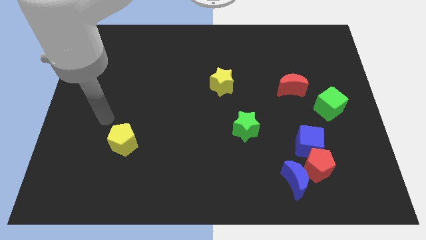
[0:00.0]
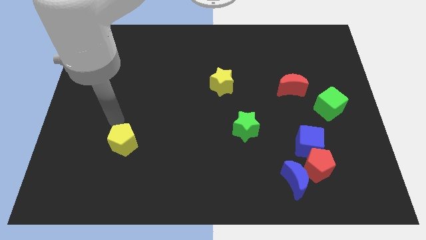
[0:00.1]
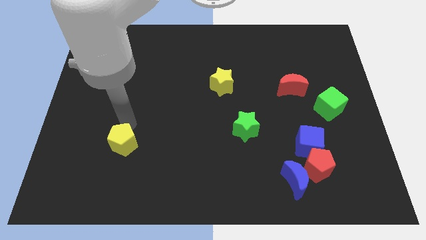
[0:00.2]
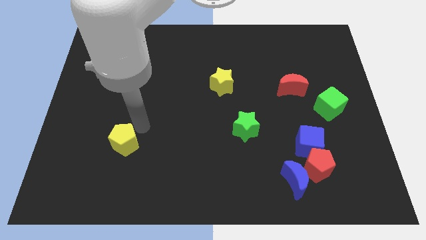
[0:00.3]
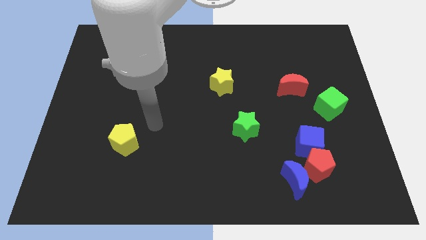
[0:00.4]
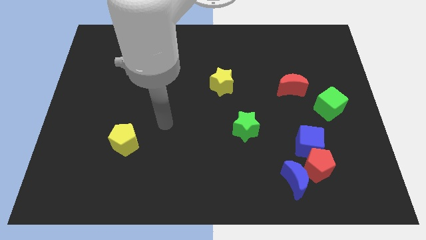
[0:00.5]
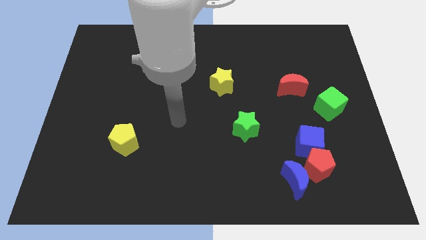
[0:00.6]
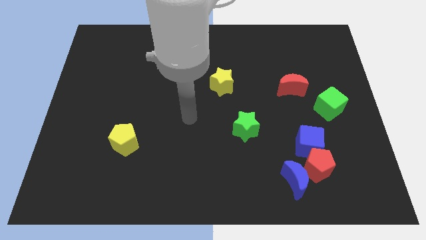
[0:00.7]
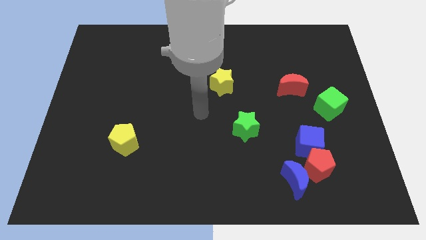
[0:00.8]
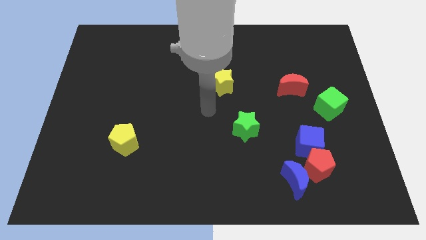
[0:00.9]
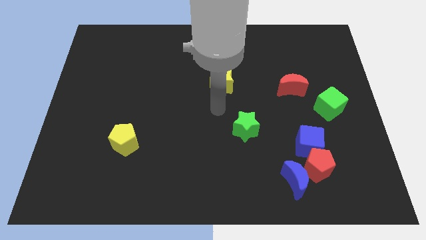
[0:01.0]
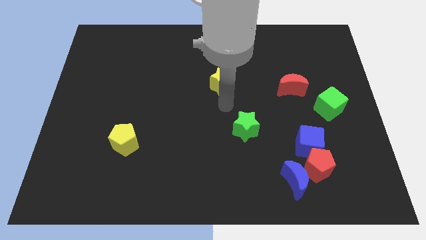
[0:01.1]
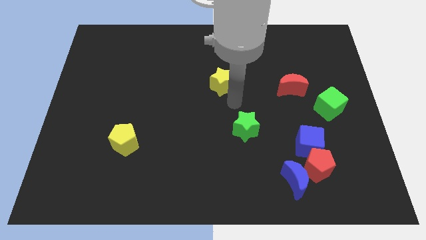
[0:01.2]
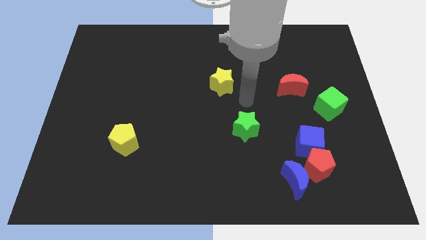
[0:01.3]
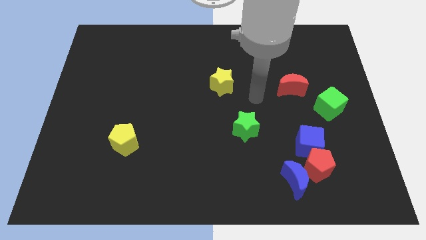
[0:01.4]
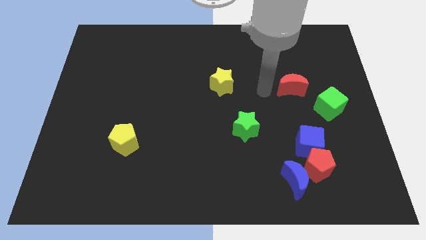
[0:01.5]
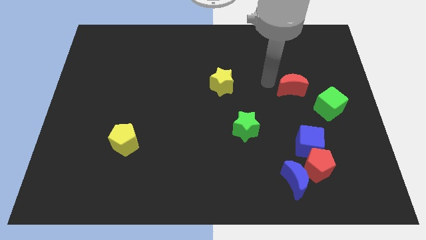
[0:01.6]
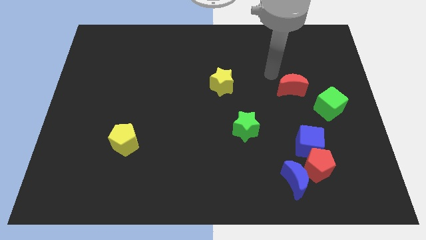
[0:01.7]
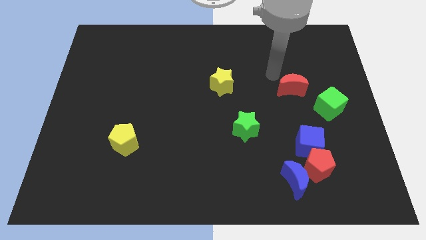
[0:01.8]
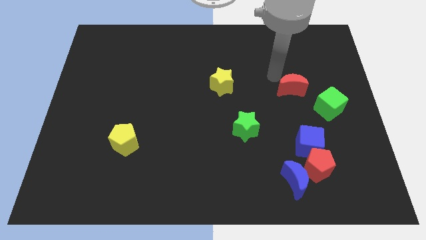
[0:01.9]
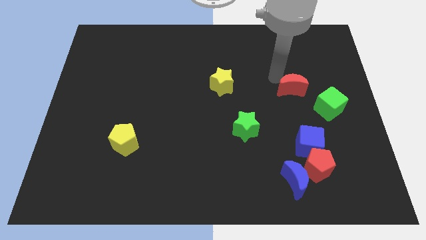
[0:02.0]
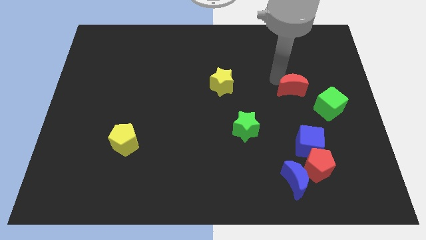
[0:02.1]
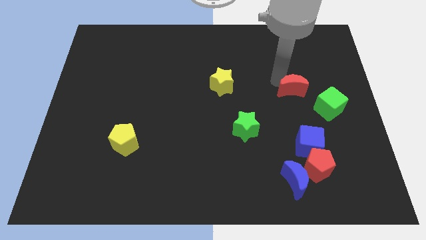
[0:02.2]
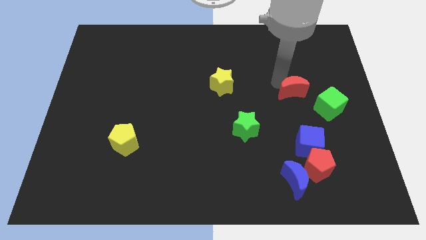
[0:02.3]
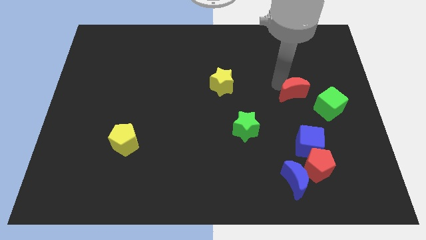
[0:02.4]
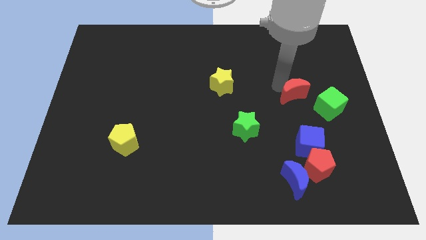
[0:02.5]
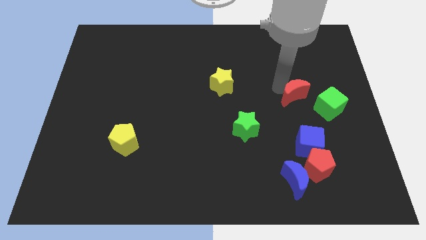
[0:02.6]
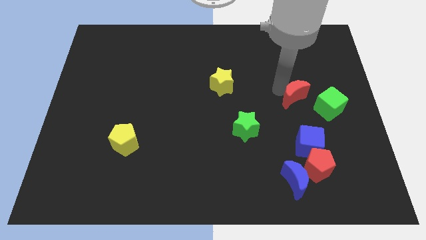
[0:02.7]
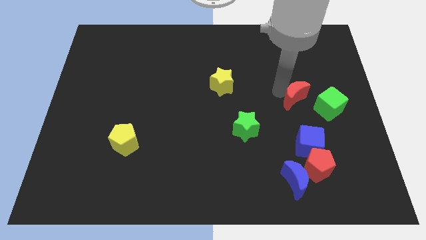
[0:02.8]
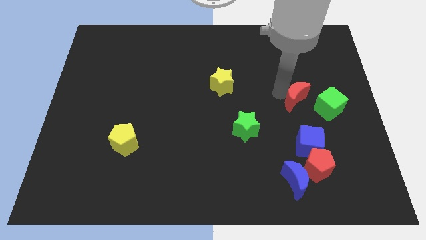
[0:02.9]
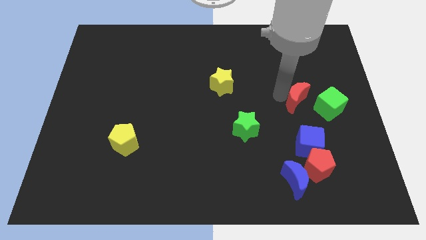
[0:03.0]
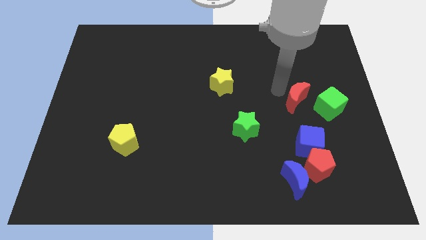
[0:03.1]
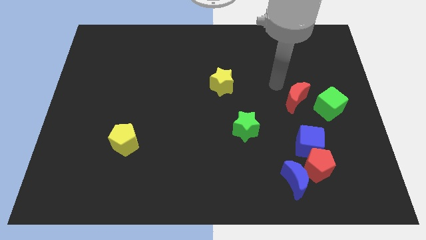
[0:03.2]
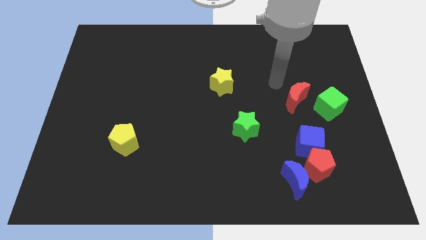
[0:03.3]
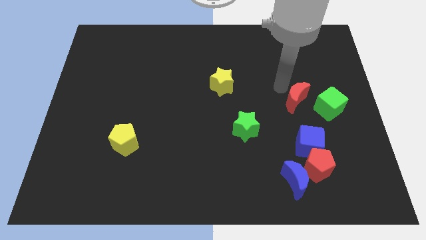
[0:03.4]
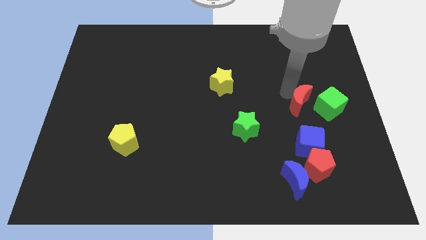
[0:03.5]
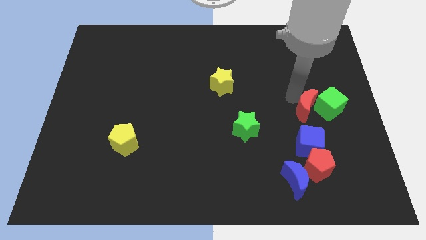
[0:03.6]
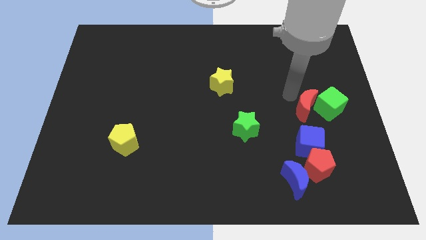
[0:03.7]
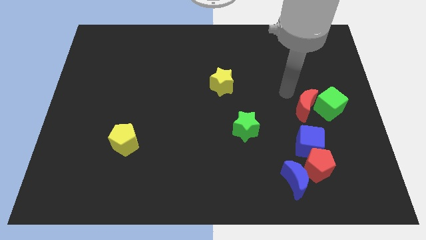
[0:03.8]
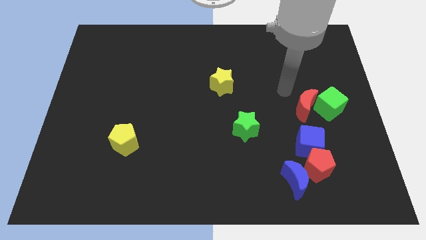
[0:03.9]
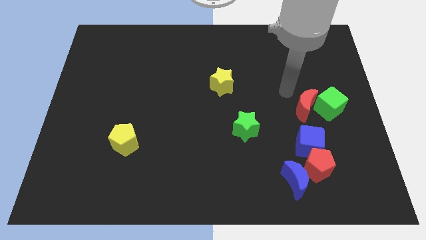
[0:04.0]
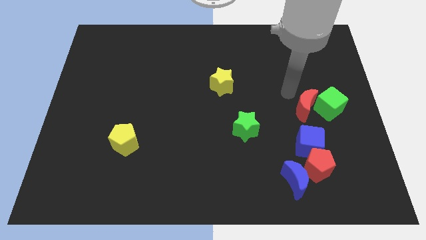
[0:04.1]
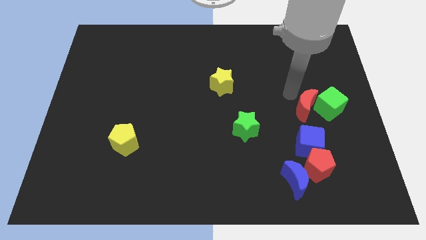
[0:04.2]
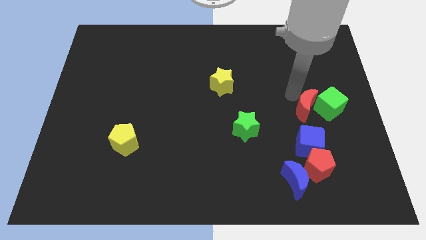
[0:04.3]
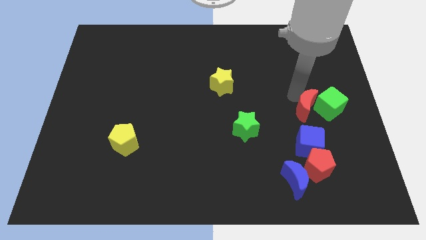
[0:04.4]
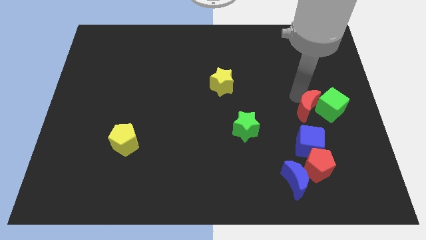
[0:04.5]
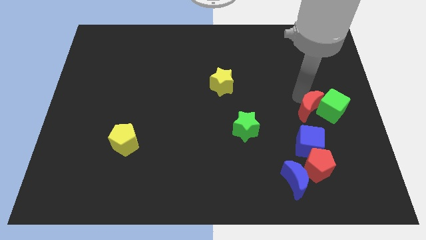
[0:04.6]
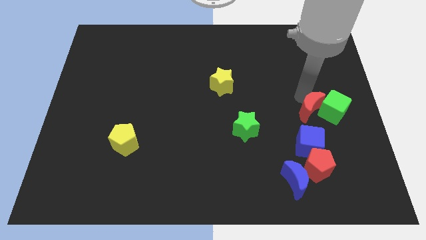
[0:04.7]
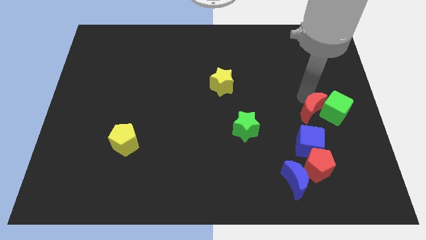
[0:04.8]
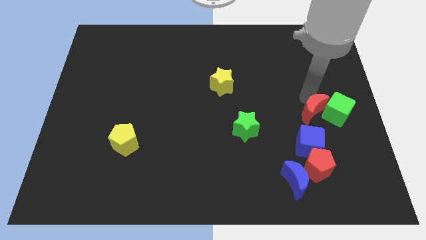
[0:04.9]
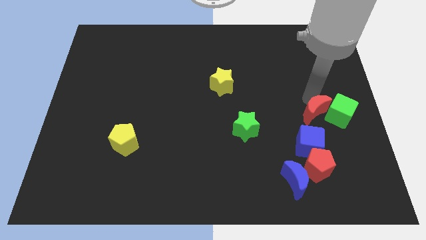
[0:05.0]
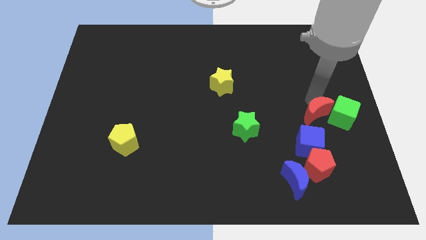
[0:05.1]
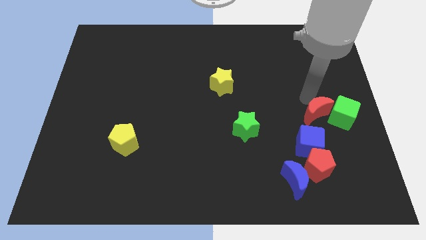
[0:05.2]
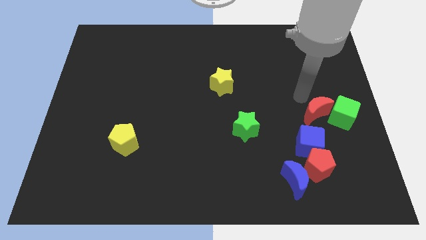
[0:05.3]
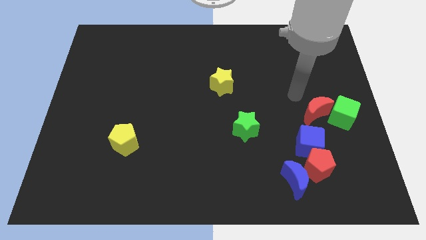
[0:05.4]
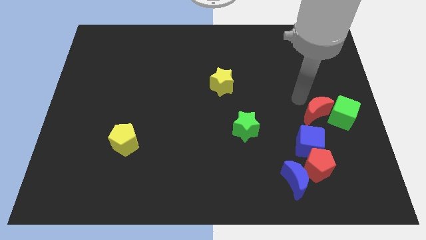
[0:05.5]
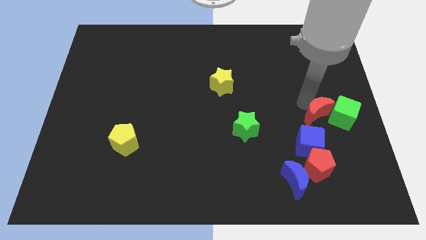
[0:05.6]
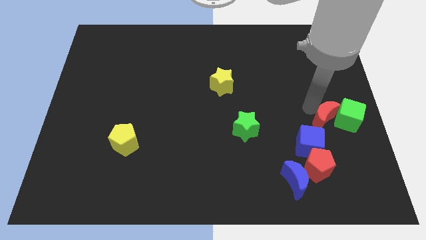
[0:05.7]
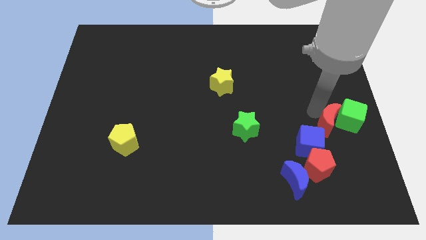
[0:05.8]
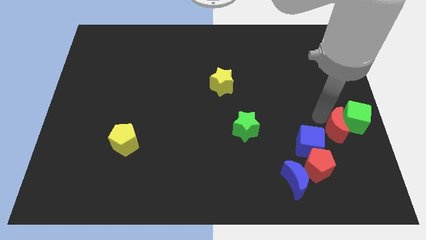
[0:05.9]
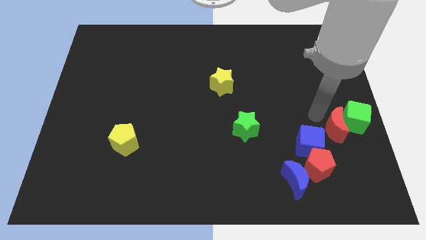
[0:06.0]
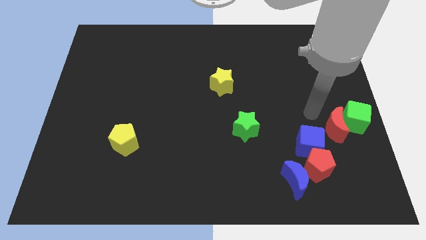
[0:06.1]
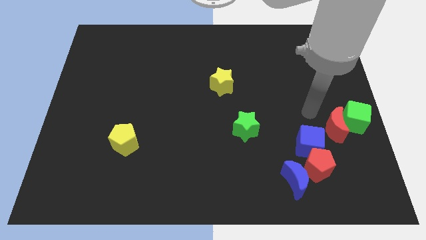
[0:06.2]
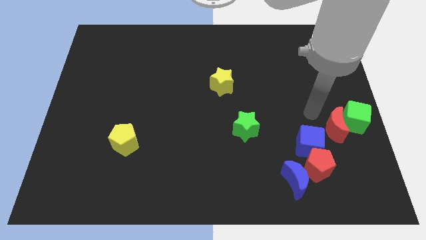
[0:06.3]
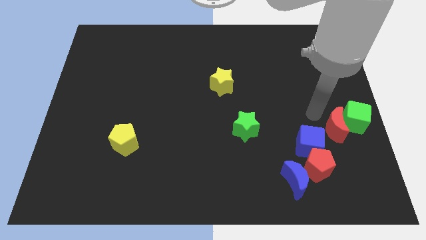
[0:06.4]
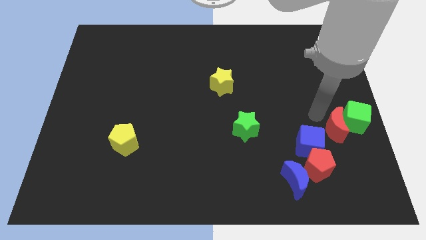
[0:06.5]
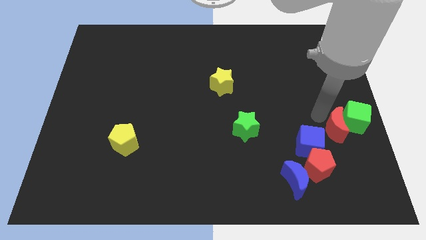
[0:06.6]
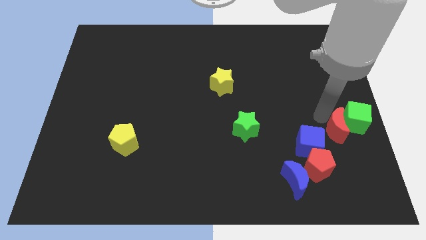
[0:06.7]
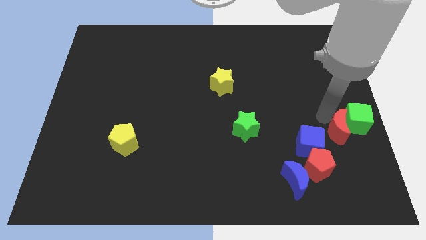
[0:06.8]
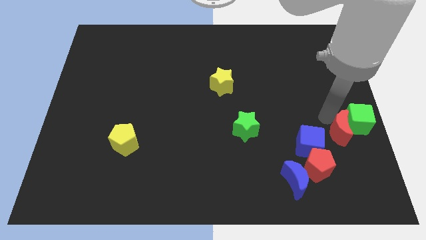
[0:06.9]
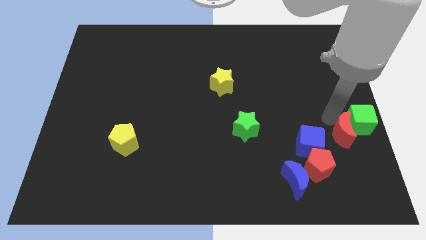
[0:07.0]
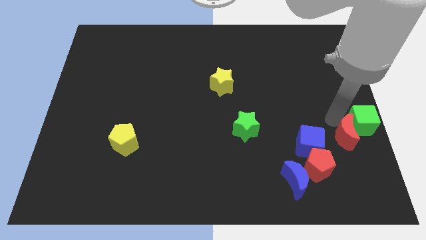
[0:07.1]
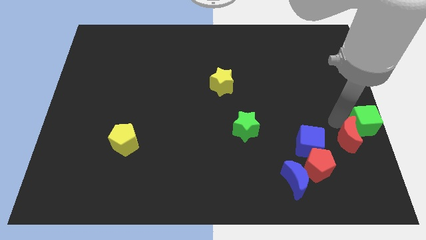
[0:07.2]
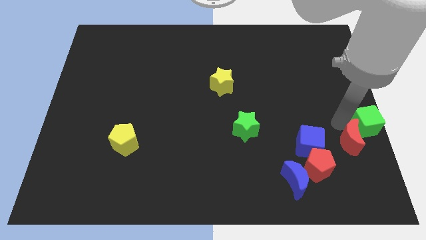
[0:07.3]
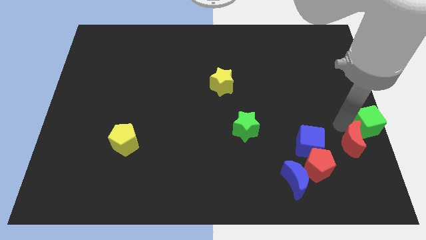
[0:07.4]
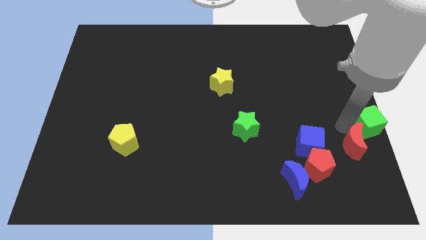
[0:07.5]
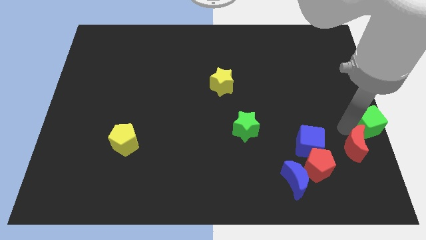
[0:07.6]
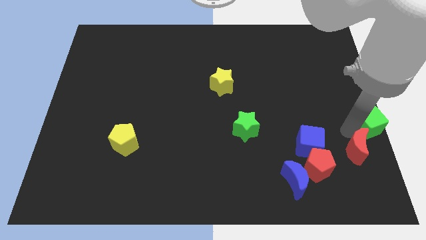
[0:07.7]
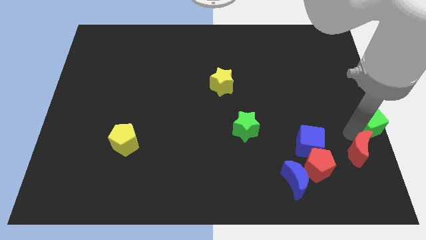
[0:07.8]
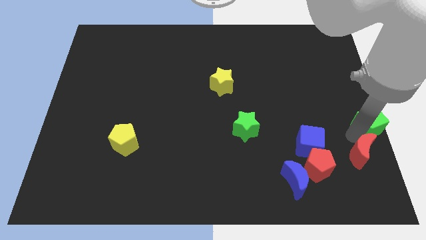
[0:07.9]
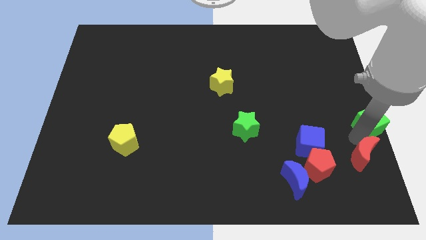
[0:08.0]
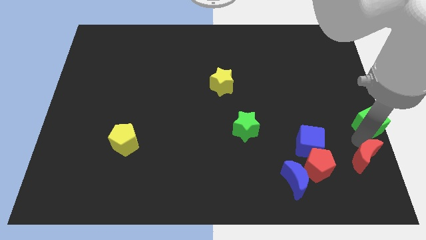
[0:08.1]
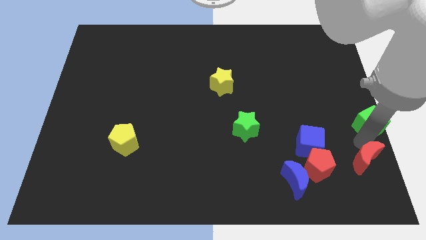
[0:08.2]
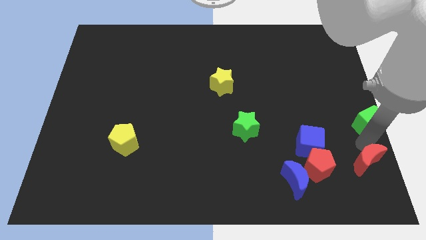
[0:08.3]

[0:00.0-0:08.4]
move the red moon to the bottom right corner
